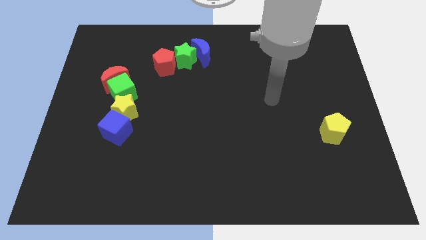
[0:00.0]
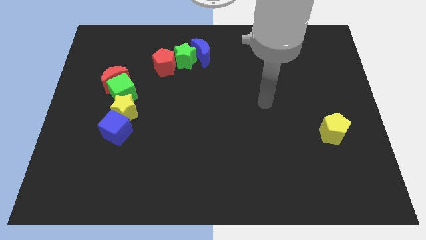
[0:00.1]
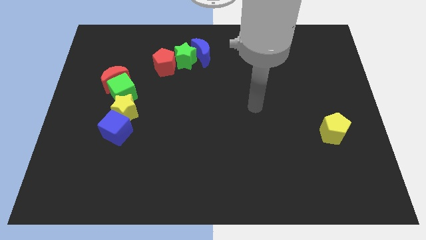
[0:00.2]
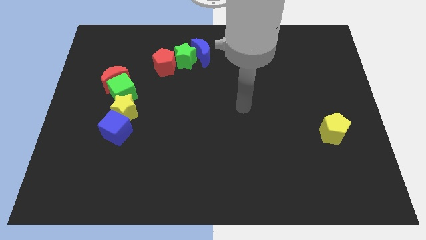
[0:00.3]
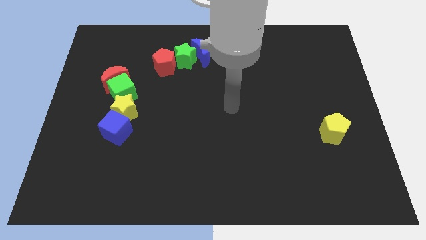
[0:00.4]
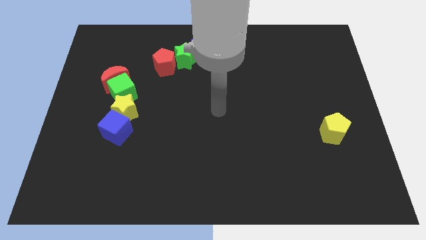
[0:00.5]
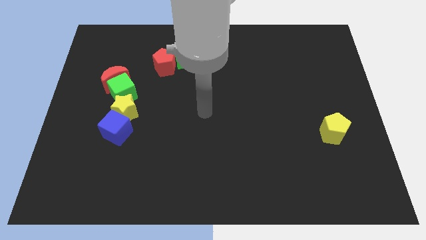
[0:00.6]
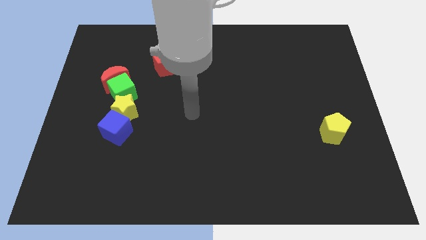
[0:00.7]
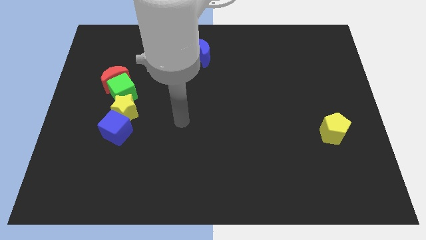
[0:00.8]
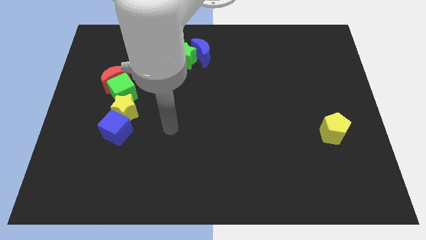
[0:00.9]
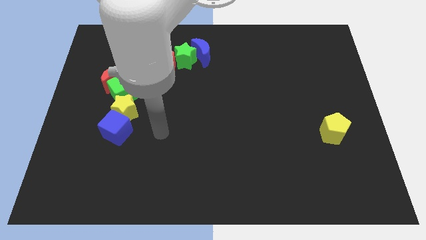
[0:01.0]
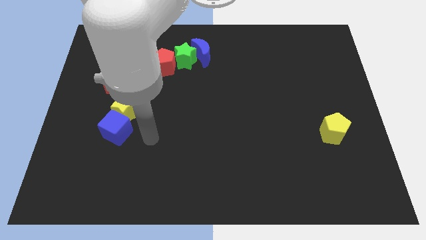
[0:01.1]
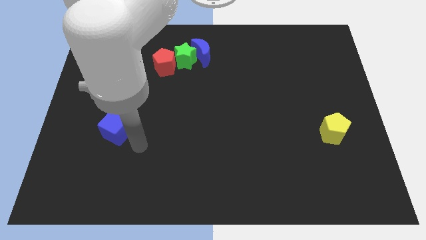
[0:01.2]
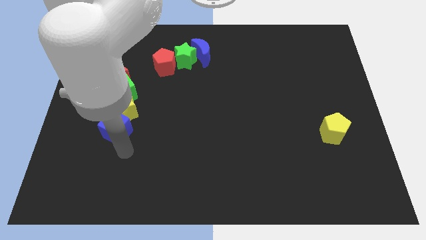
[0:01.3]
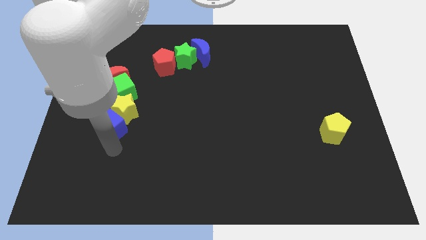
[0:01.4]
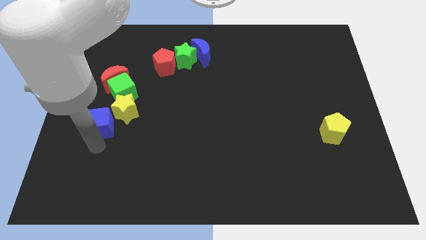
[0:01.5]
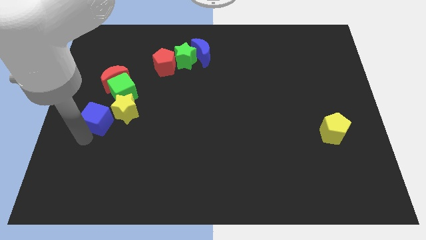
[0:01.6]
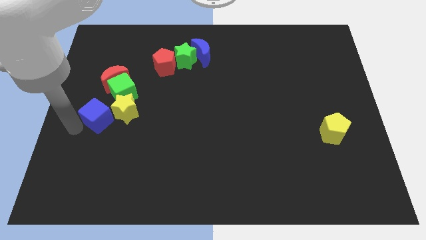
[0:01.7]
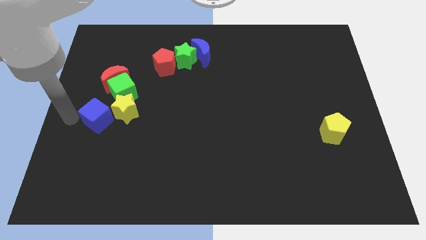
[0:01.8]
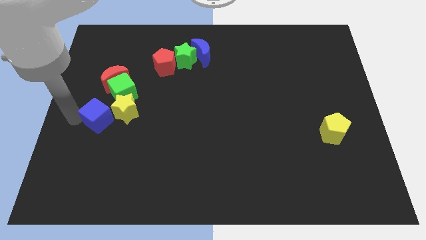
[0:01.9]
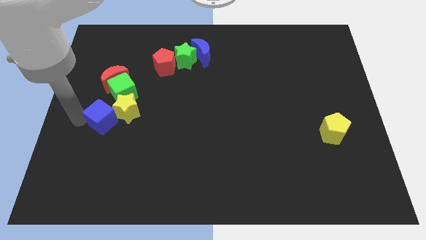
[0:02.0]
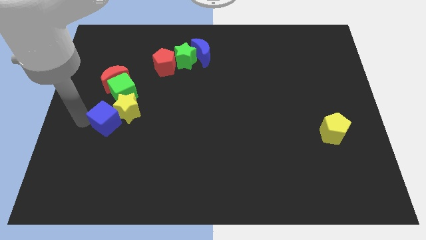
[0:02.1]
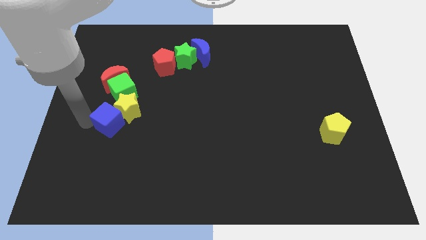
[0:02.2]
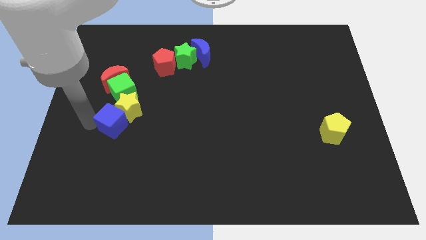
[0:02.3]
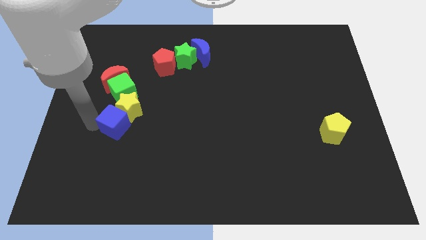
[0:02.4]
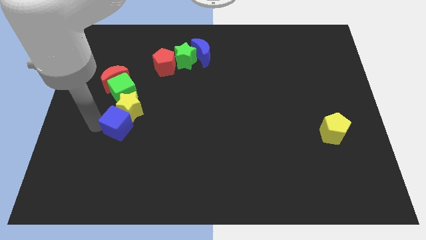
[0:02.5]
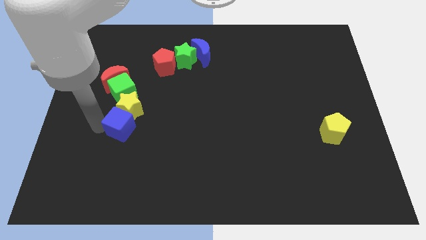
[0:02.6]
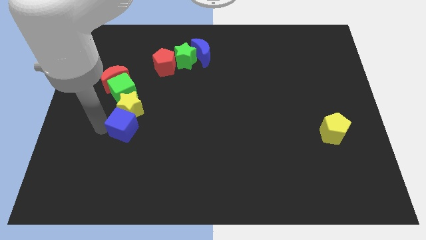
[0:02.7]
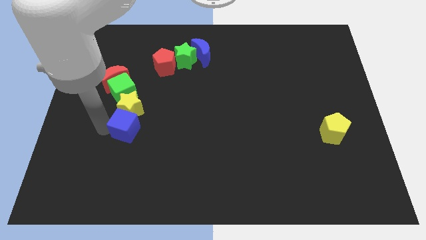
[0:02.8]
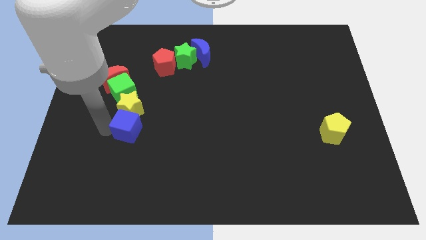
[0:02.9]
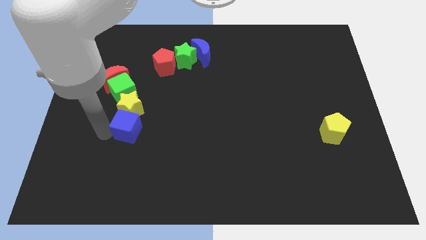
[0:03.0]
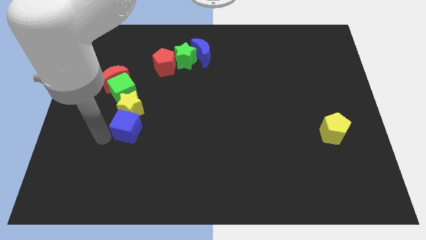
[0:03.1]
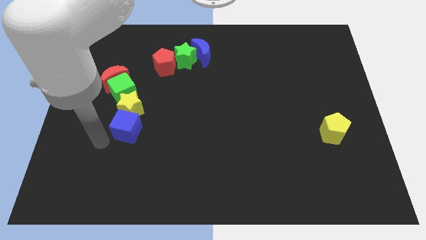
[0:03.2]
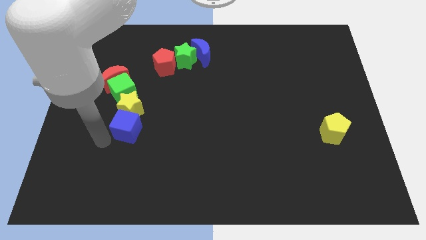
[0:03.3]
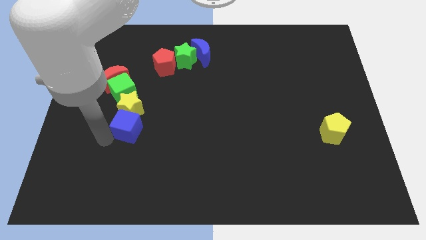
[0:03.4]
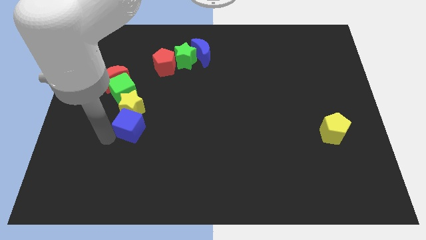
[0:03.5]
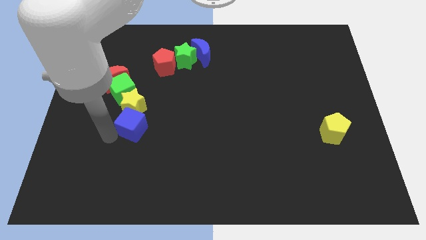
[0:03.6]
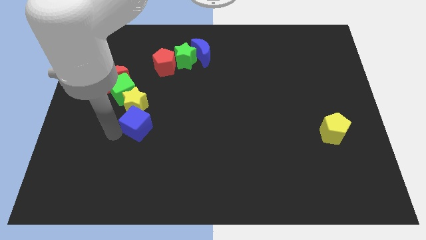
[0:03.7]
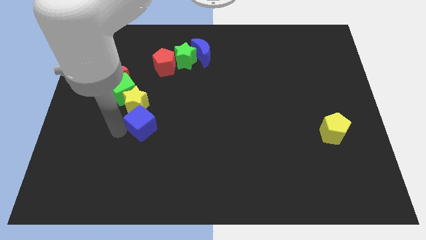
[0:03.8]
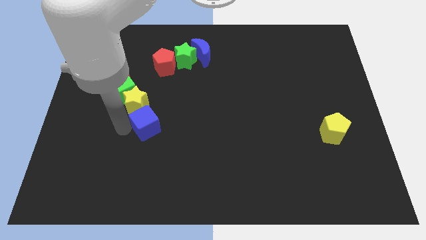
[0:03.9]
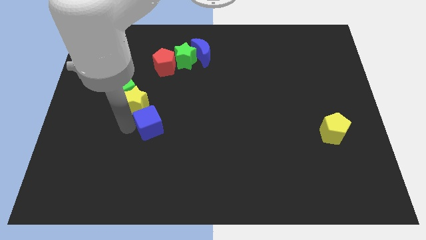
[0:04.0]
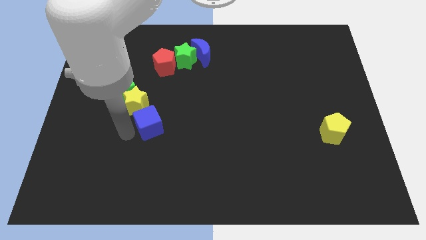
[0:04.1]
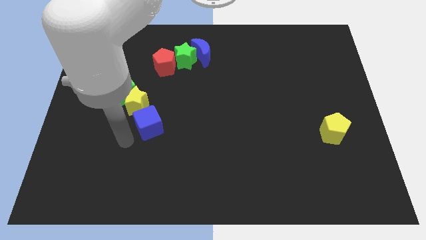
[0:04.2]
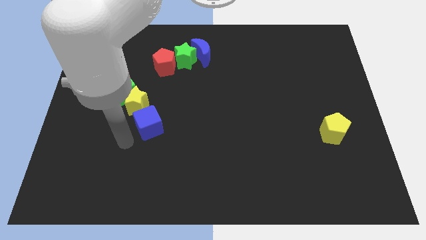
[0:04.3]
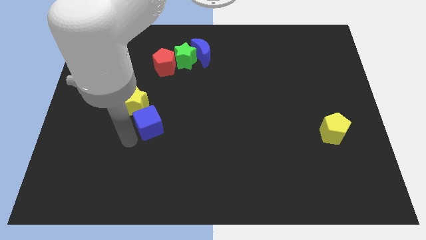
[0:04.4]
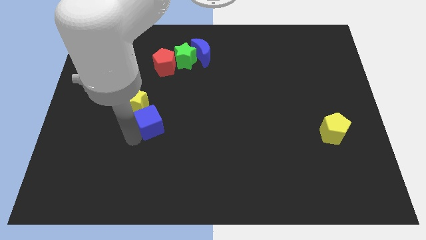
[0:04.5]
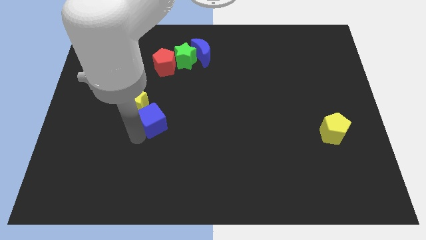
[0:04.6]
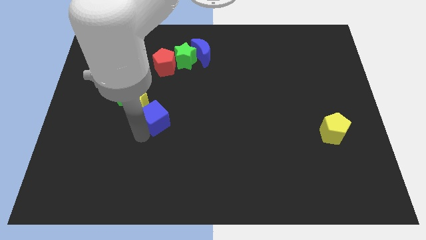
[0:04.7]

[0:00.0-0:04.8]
push the blue cube just right of the yellow star

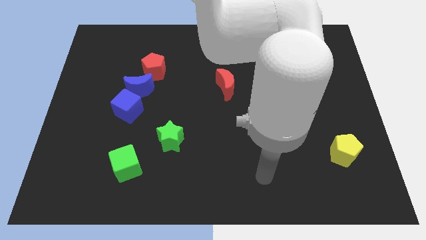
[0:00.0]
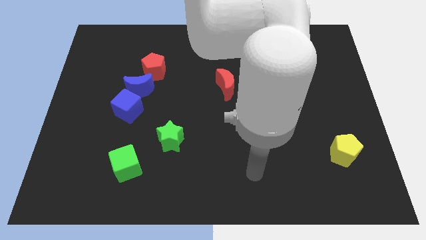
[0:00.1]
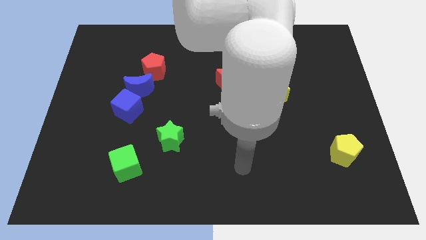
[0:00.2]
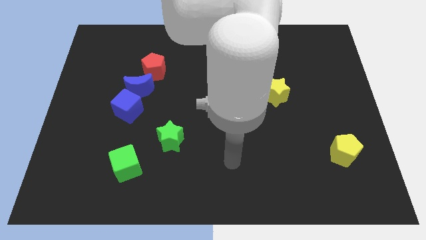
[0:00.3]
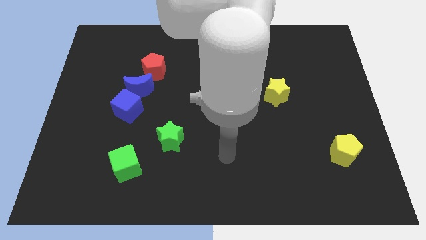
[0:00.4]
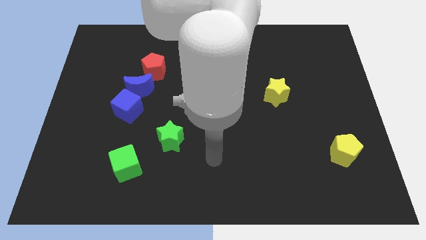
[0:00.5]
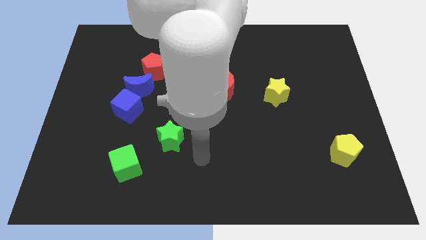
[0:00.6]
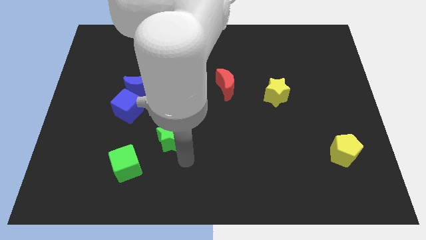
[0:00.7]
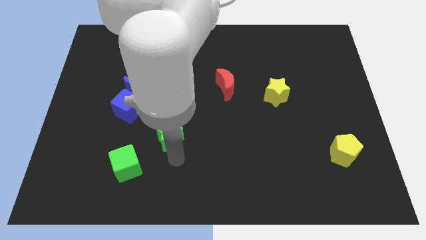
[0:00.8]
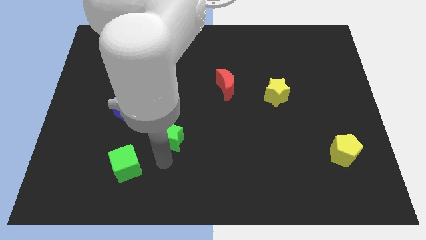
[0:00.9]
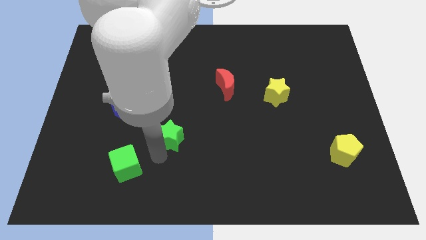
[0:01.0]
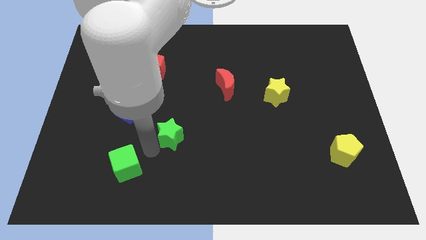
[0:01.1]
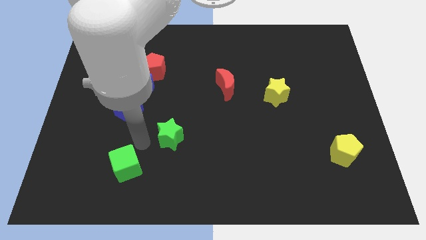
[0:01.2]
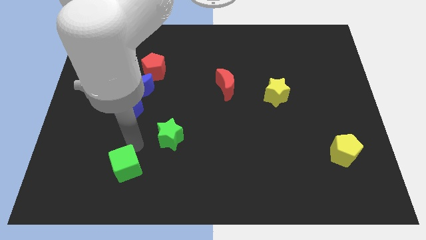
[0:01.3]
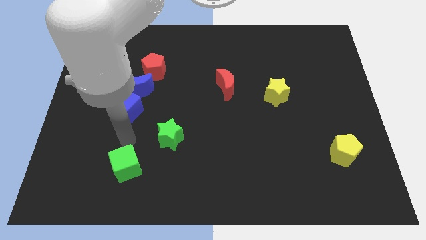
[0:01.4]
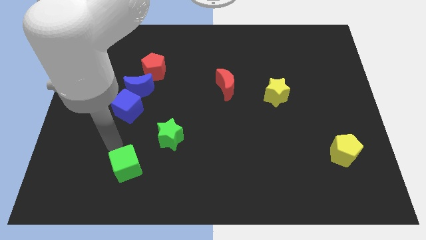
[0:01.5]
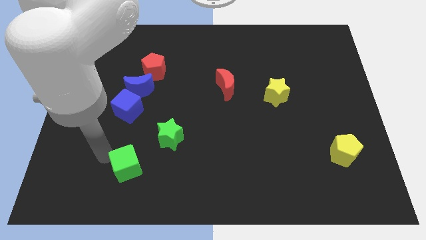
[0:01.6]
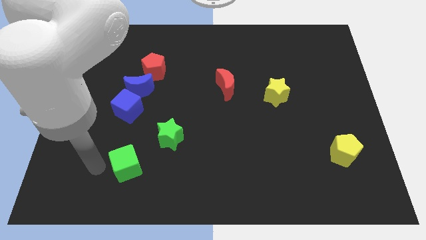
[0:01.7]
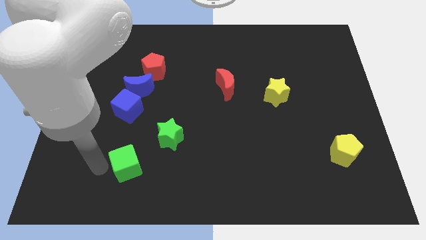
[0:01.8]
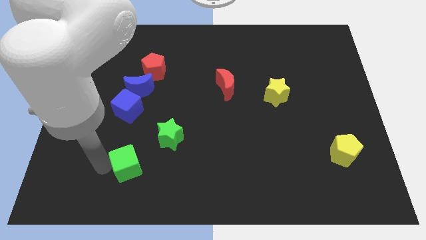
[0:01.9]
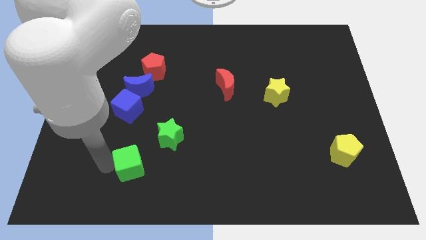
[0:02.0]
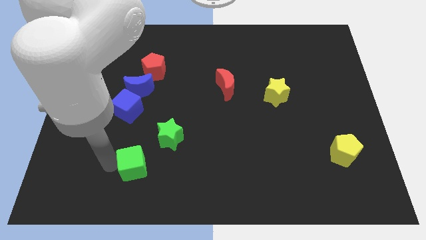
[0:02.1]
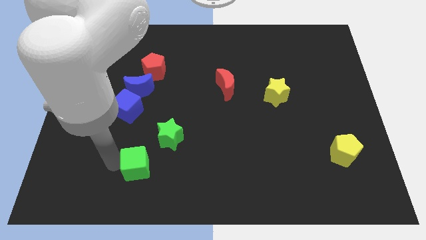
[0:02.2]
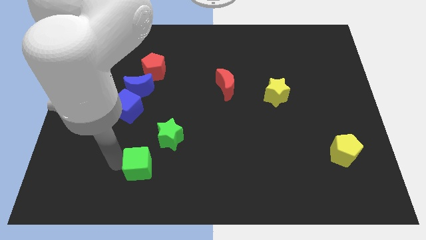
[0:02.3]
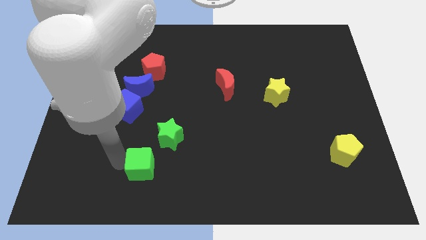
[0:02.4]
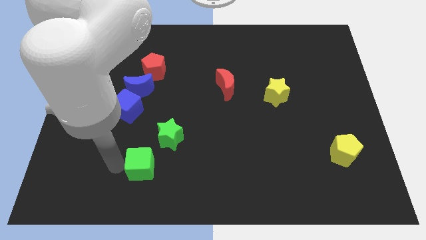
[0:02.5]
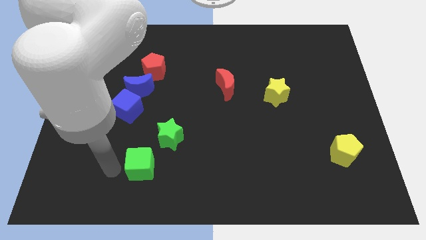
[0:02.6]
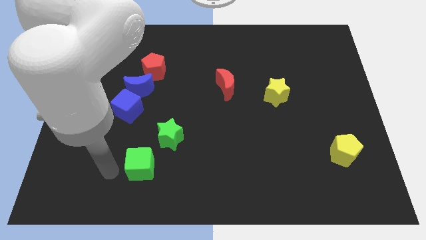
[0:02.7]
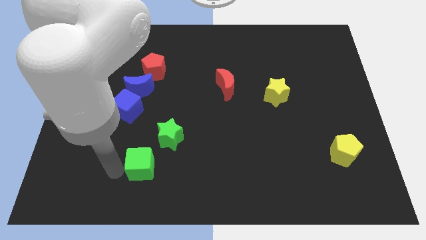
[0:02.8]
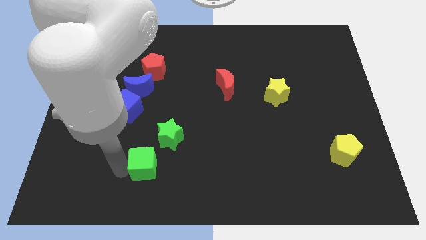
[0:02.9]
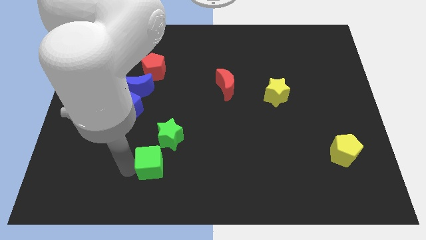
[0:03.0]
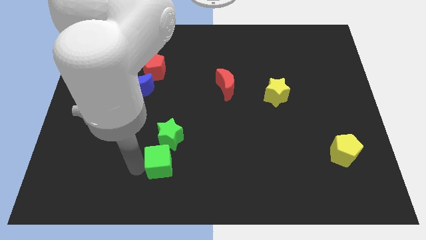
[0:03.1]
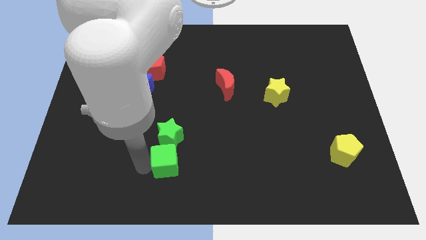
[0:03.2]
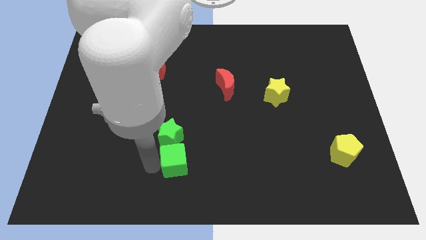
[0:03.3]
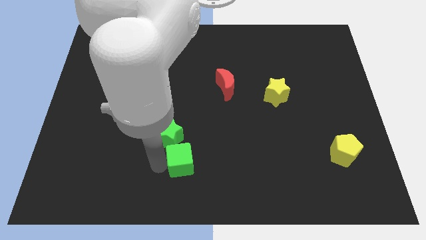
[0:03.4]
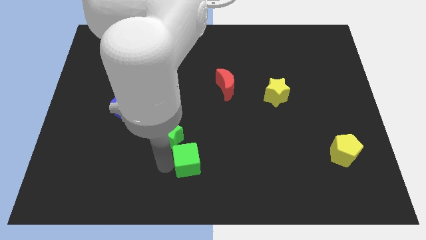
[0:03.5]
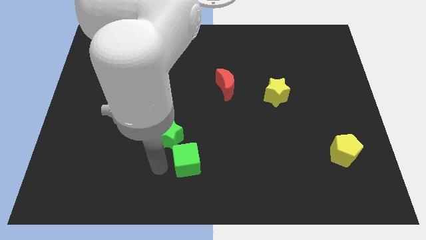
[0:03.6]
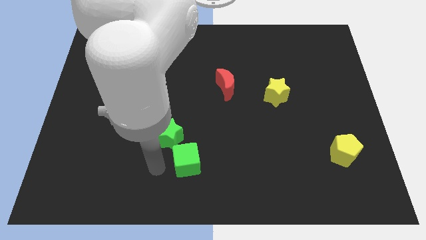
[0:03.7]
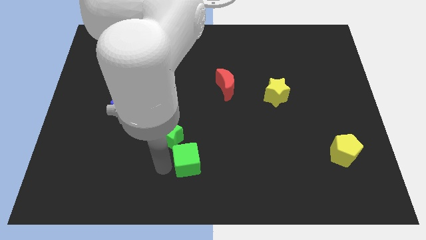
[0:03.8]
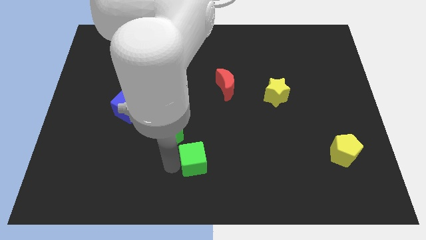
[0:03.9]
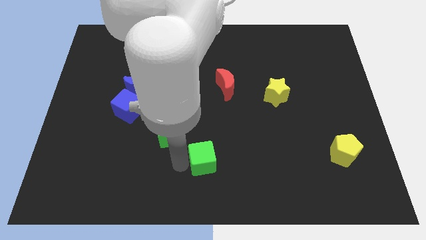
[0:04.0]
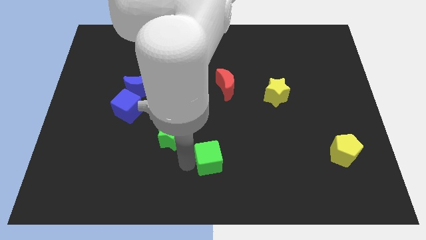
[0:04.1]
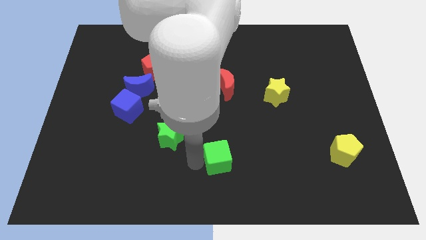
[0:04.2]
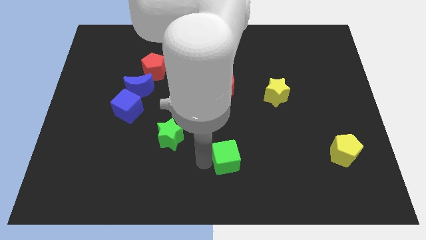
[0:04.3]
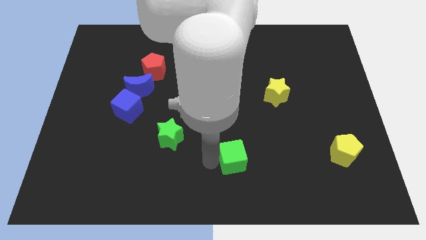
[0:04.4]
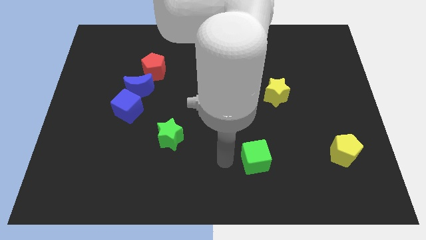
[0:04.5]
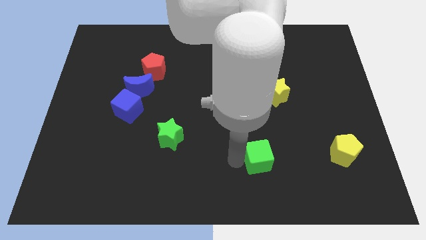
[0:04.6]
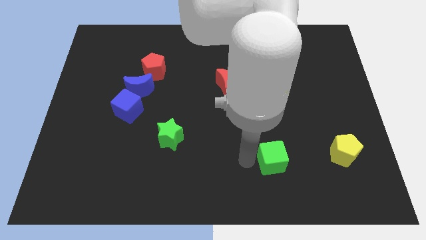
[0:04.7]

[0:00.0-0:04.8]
slide the green cube to the left of the yellow pentagon
